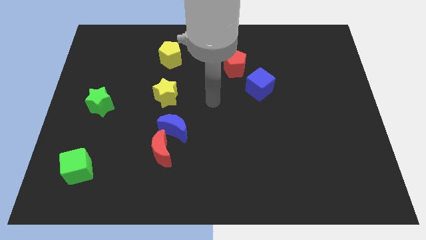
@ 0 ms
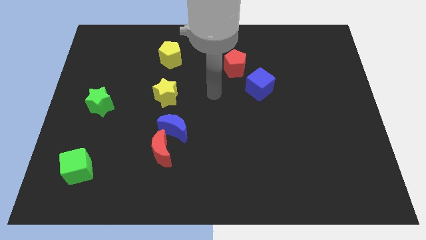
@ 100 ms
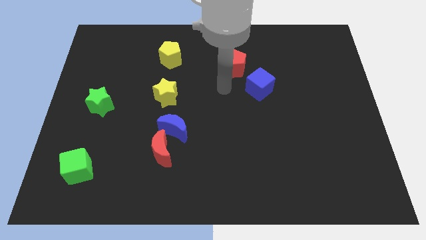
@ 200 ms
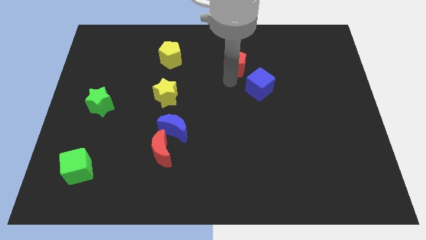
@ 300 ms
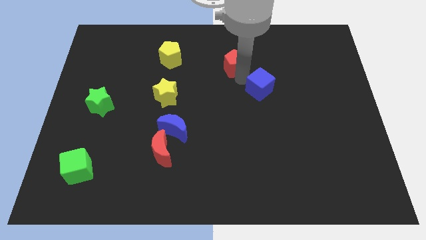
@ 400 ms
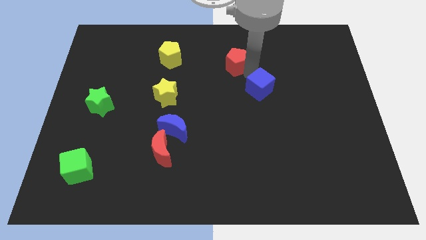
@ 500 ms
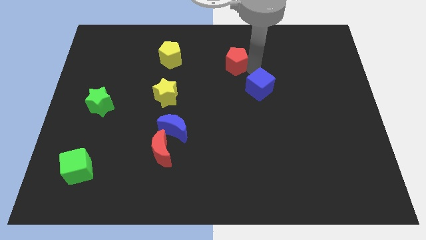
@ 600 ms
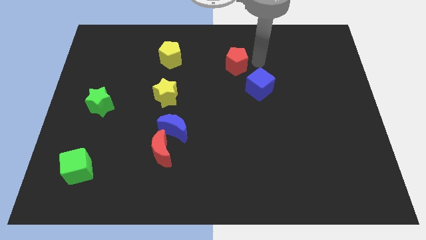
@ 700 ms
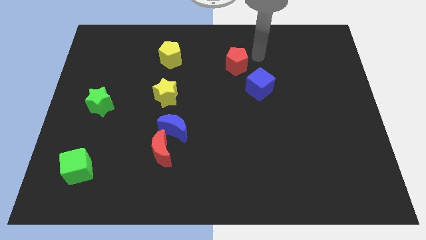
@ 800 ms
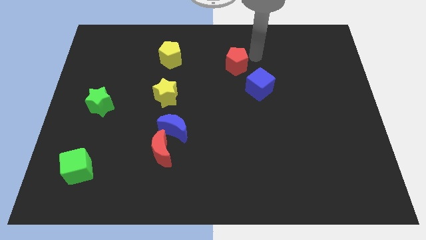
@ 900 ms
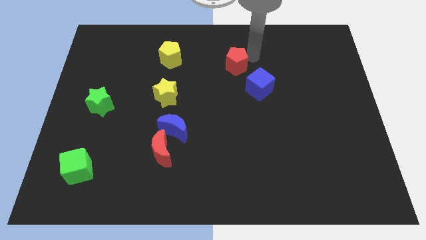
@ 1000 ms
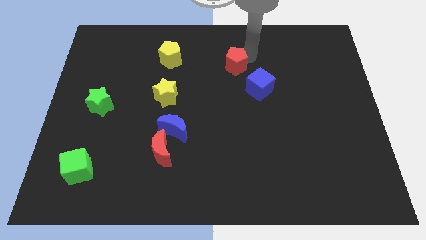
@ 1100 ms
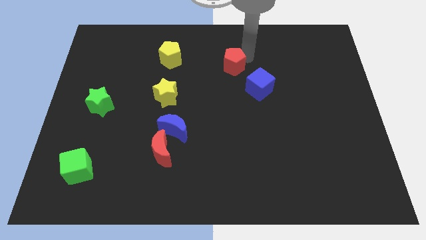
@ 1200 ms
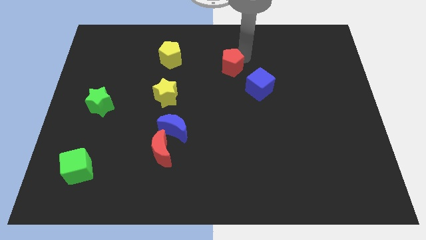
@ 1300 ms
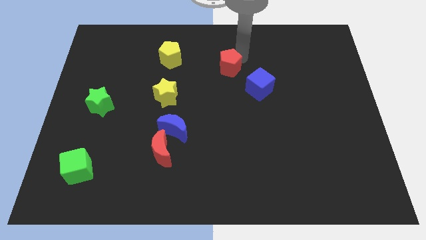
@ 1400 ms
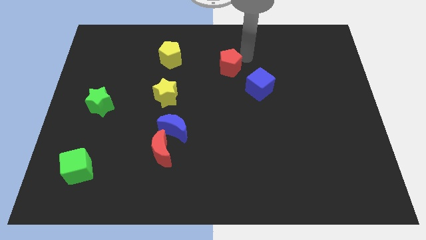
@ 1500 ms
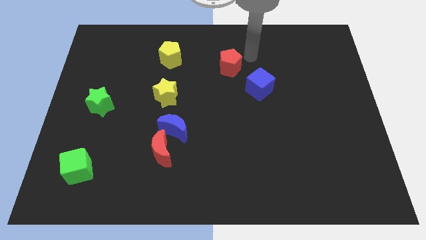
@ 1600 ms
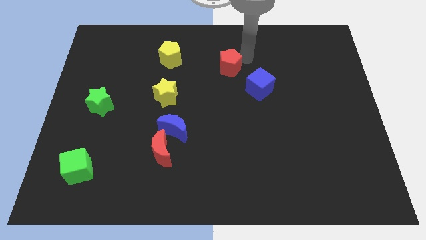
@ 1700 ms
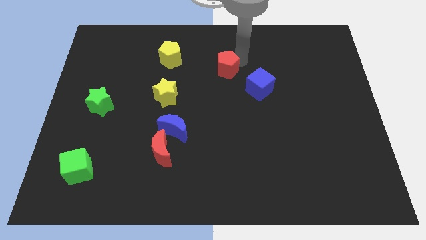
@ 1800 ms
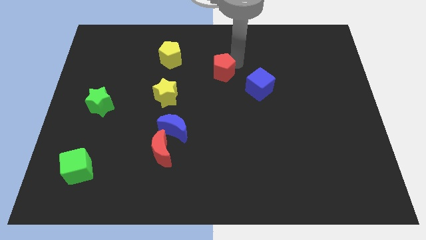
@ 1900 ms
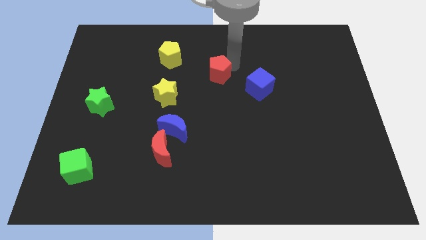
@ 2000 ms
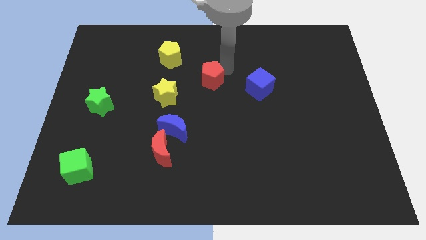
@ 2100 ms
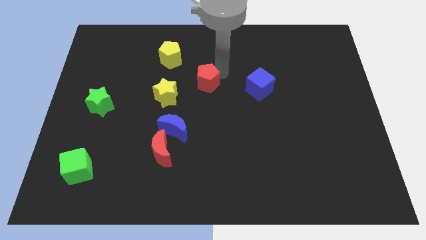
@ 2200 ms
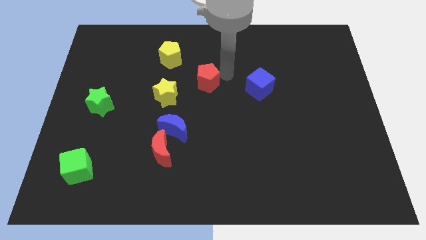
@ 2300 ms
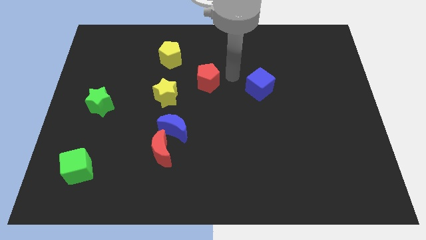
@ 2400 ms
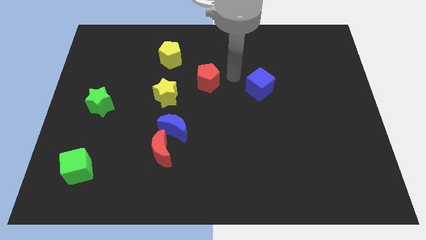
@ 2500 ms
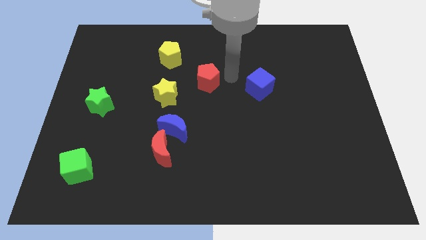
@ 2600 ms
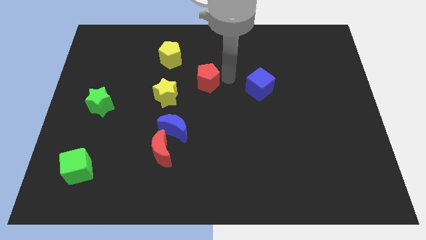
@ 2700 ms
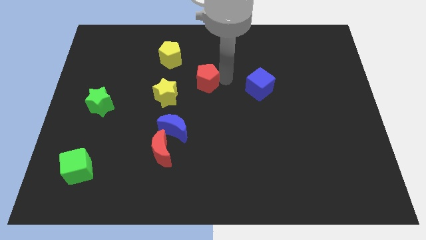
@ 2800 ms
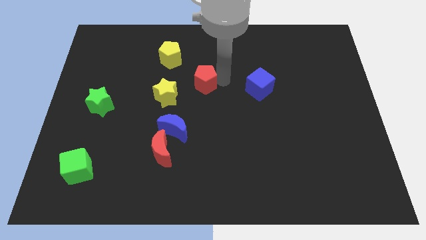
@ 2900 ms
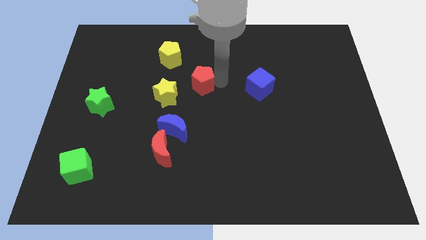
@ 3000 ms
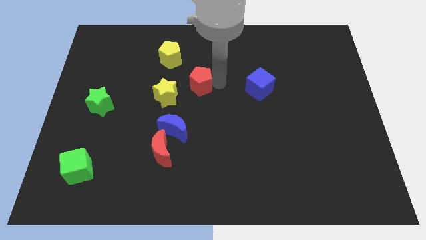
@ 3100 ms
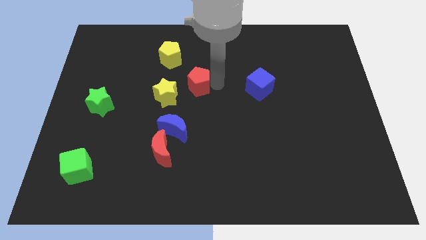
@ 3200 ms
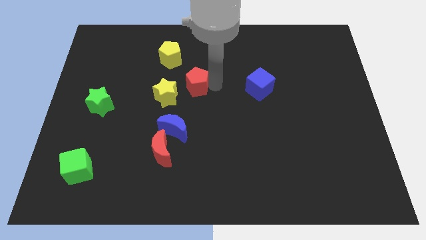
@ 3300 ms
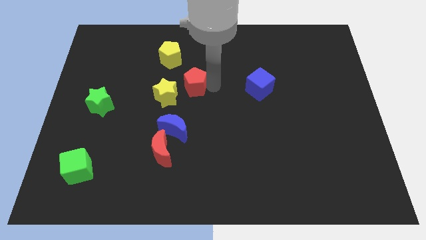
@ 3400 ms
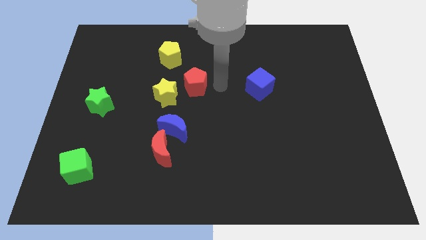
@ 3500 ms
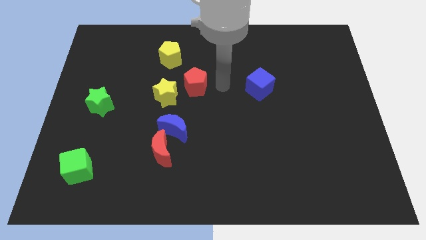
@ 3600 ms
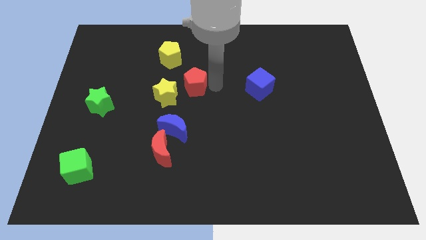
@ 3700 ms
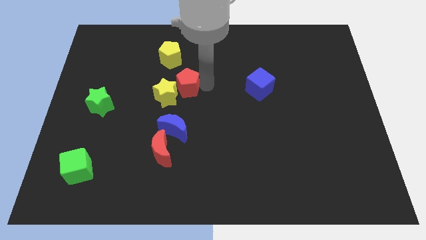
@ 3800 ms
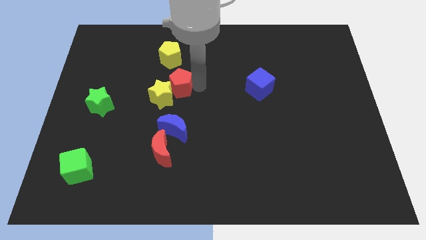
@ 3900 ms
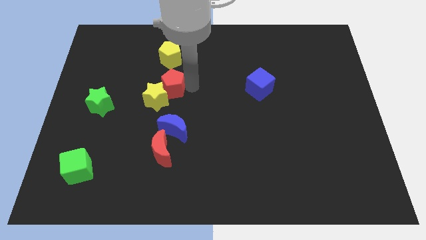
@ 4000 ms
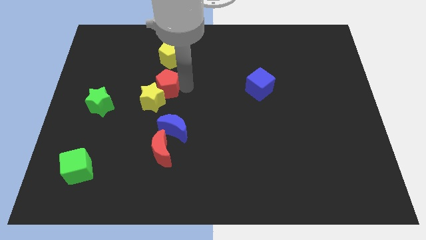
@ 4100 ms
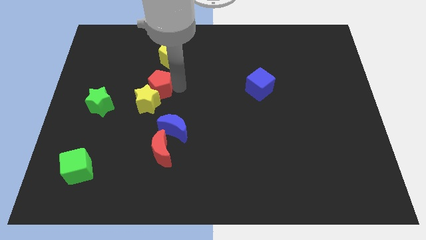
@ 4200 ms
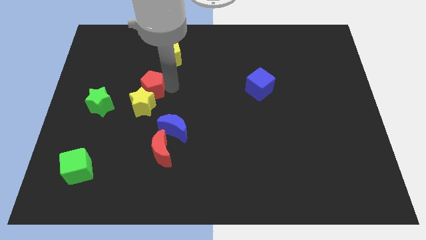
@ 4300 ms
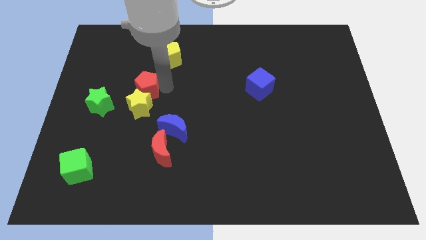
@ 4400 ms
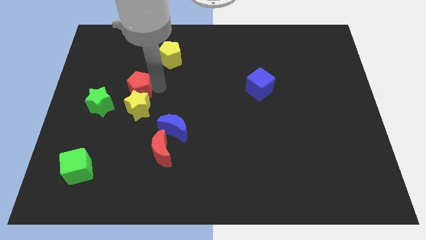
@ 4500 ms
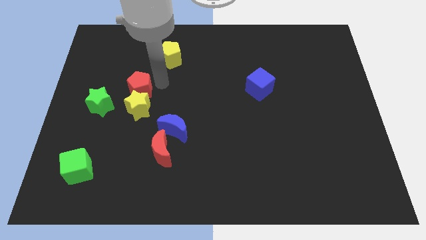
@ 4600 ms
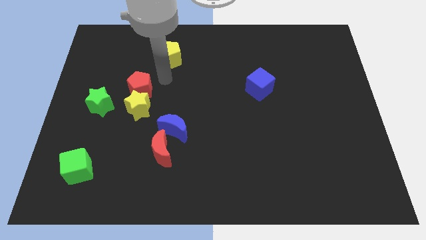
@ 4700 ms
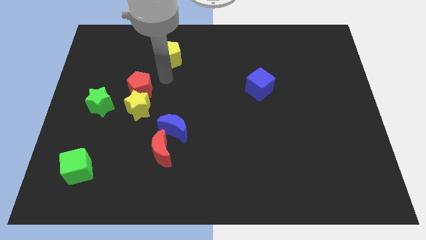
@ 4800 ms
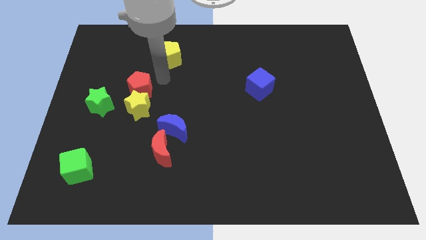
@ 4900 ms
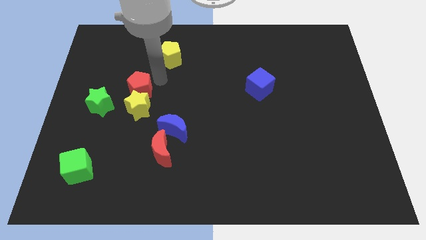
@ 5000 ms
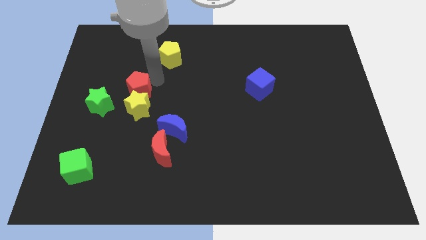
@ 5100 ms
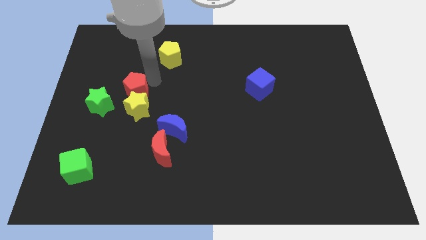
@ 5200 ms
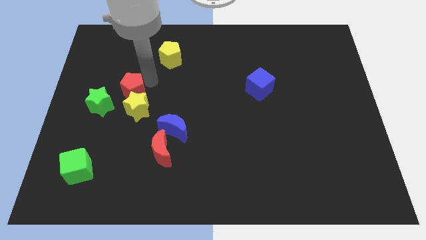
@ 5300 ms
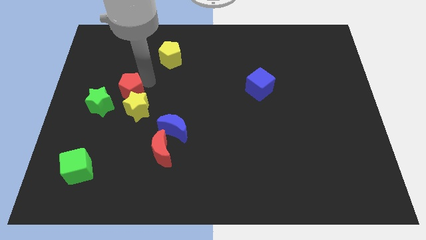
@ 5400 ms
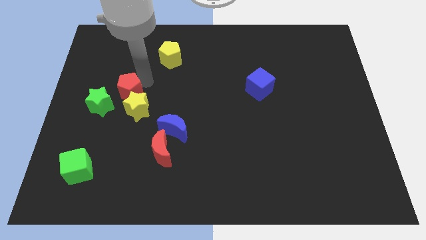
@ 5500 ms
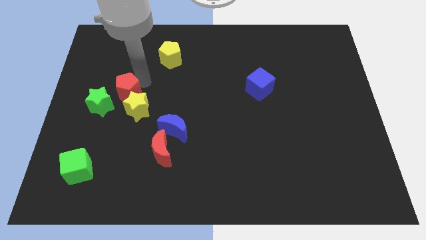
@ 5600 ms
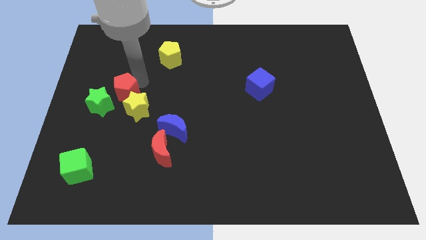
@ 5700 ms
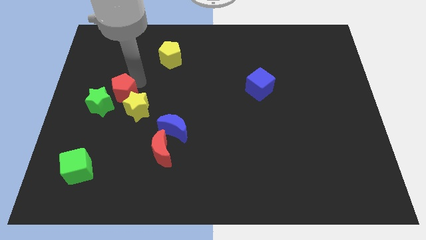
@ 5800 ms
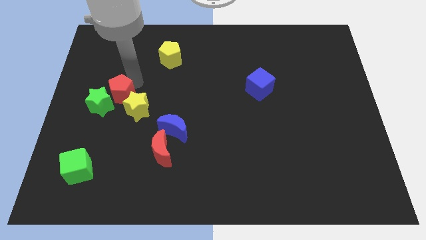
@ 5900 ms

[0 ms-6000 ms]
move the red pentagon towards the green star

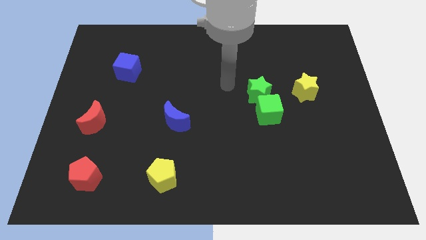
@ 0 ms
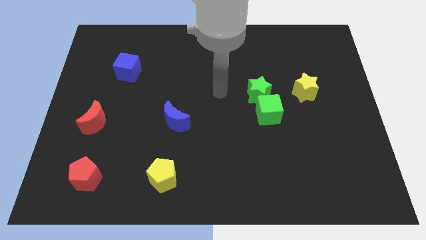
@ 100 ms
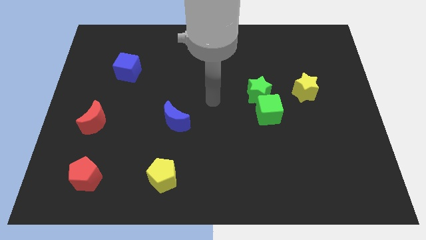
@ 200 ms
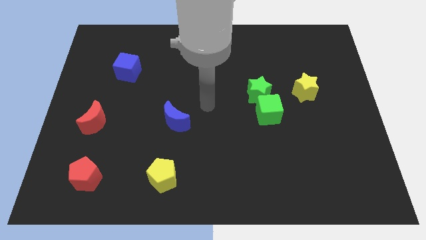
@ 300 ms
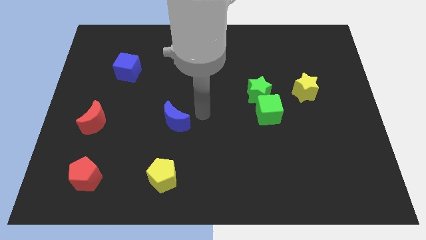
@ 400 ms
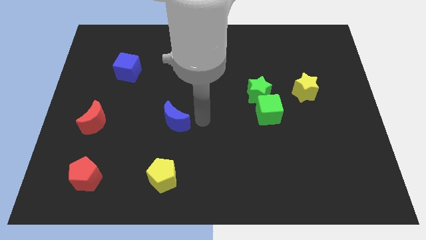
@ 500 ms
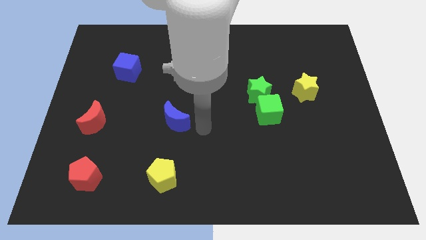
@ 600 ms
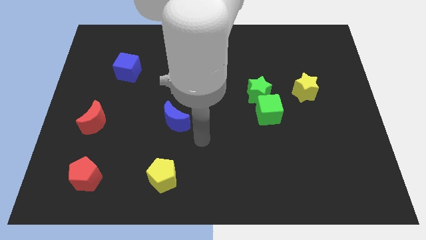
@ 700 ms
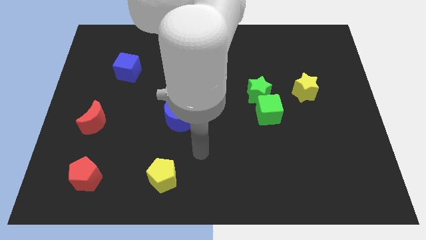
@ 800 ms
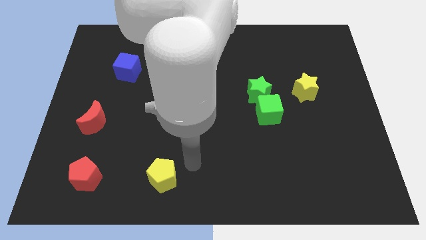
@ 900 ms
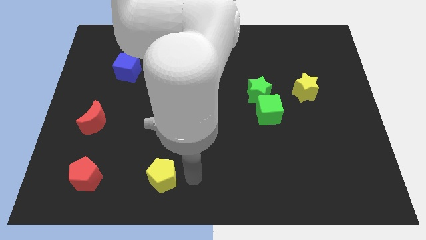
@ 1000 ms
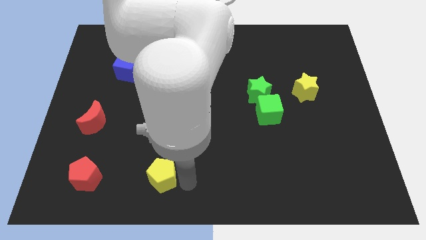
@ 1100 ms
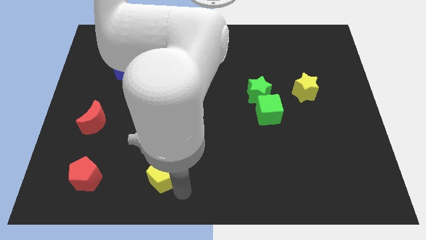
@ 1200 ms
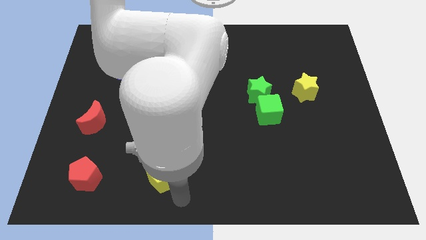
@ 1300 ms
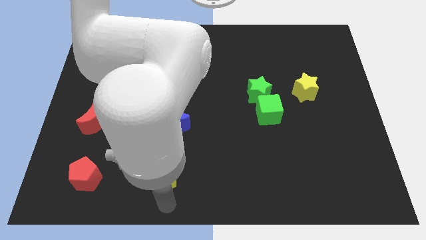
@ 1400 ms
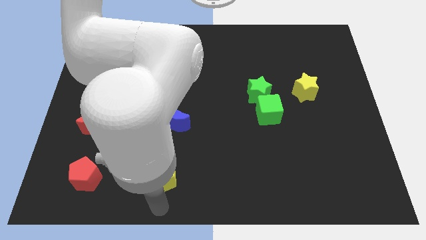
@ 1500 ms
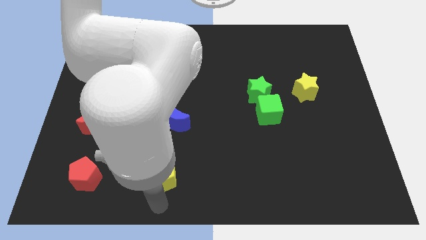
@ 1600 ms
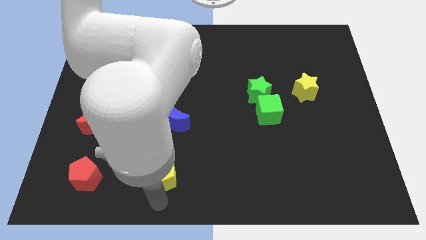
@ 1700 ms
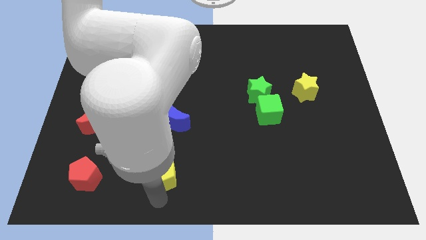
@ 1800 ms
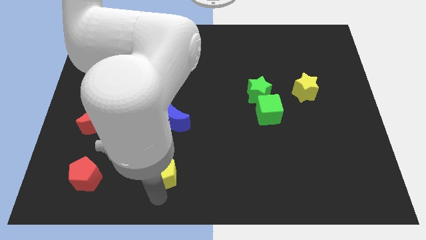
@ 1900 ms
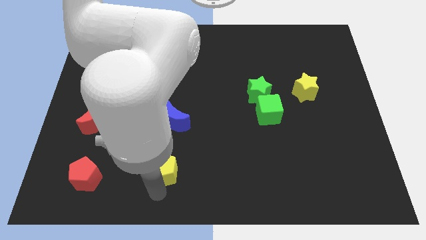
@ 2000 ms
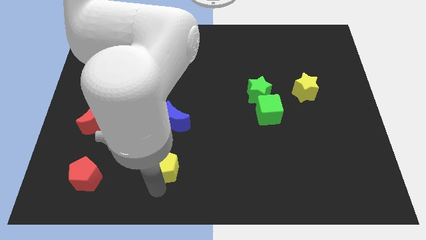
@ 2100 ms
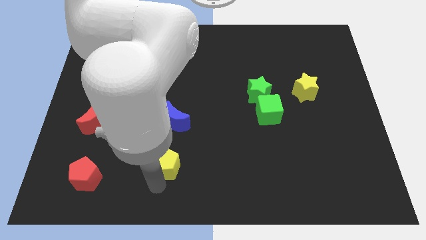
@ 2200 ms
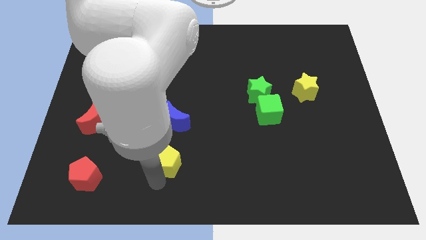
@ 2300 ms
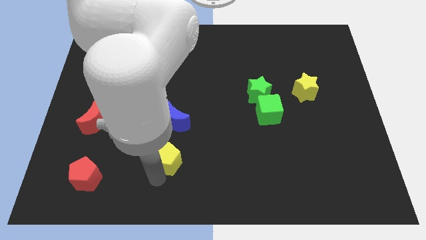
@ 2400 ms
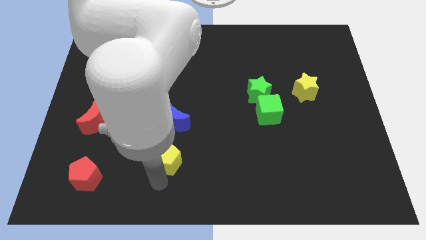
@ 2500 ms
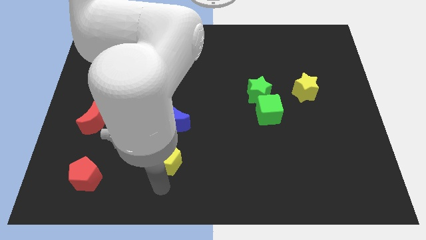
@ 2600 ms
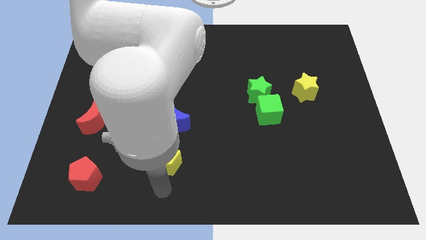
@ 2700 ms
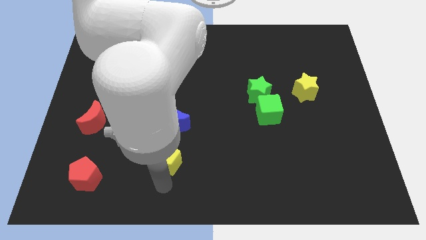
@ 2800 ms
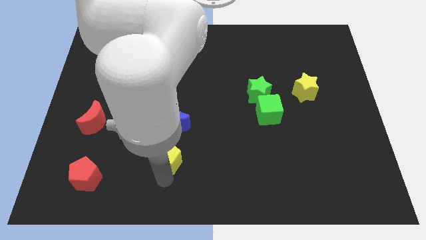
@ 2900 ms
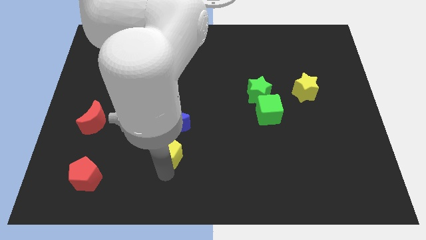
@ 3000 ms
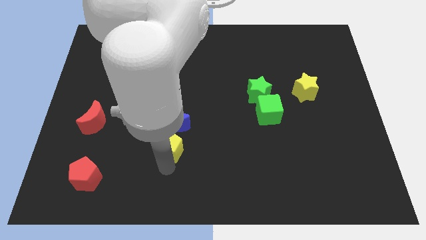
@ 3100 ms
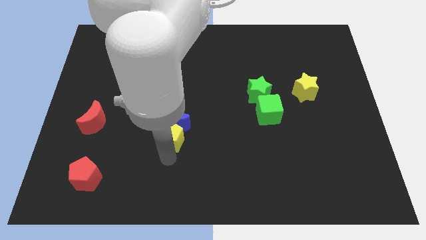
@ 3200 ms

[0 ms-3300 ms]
move the yellow pentagon to the blue moon
